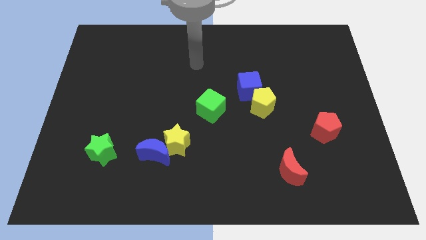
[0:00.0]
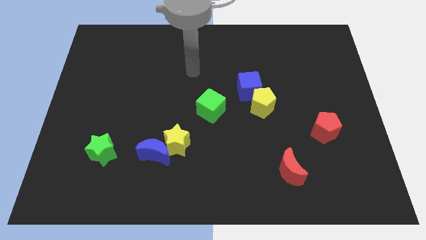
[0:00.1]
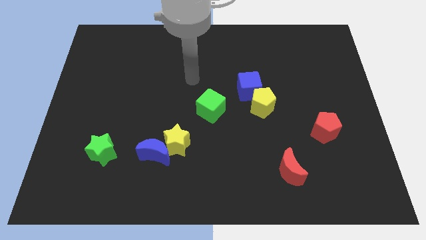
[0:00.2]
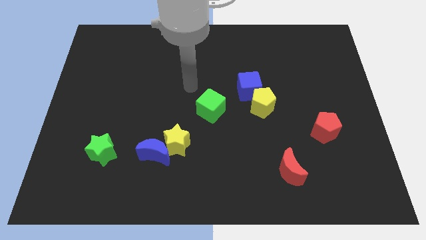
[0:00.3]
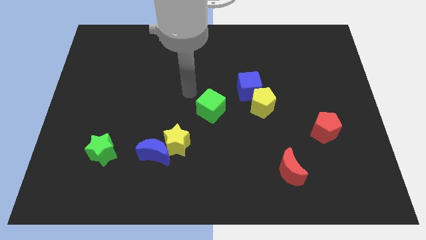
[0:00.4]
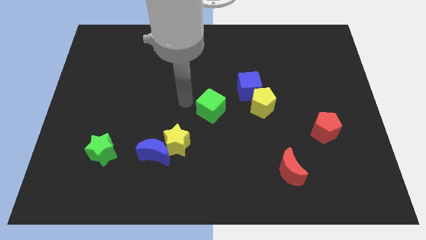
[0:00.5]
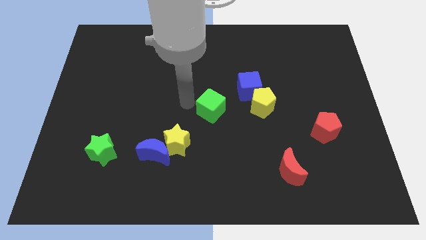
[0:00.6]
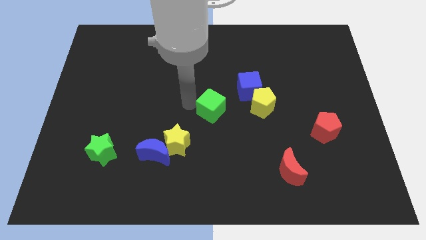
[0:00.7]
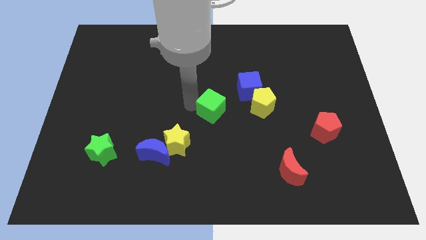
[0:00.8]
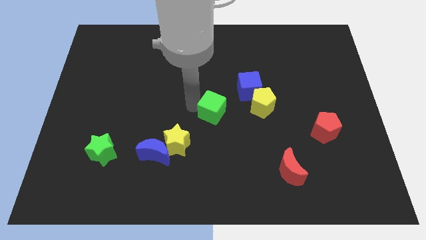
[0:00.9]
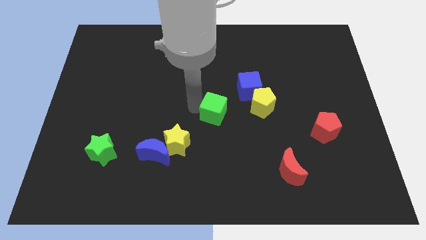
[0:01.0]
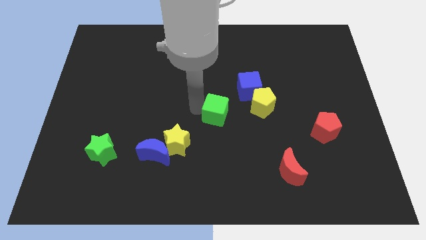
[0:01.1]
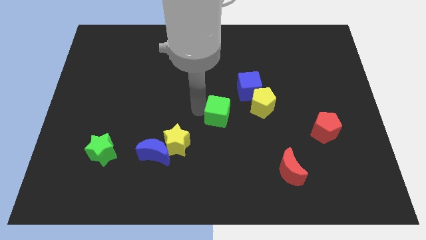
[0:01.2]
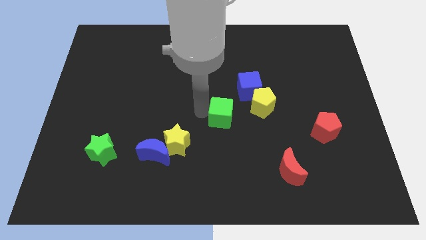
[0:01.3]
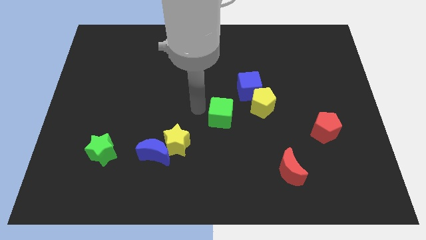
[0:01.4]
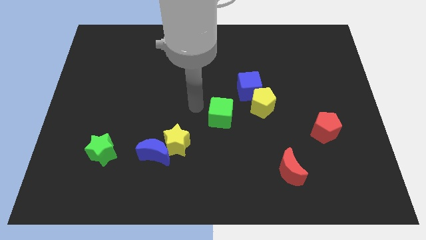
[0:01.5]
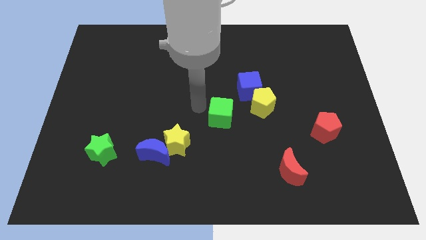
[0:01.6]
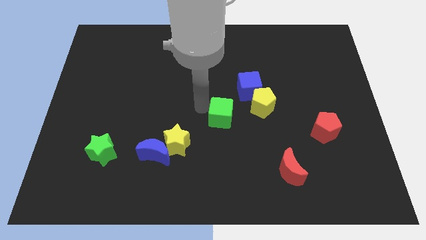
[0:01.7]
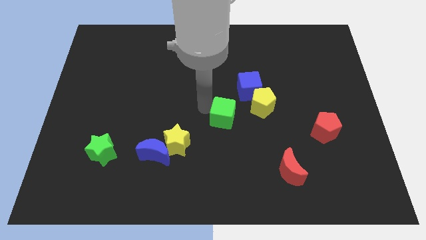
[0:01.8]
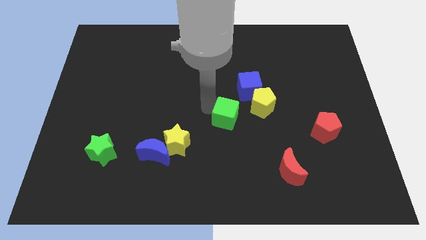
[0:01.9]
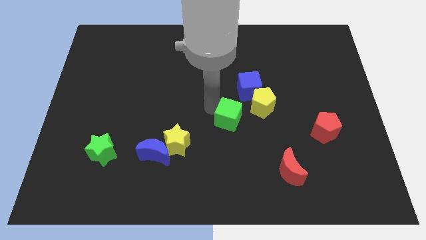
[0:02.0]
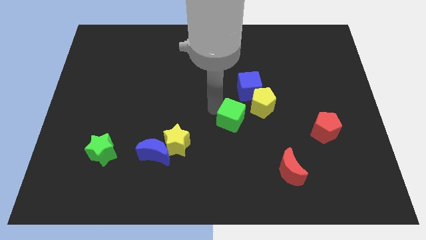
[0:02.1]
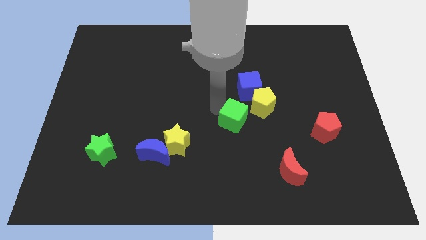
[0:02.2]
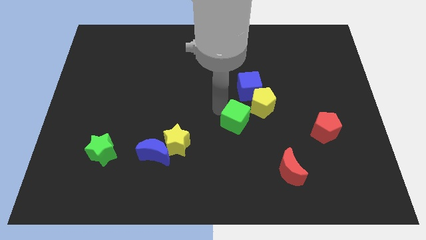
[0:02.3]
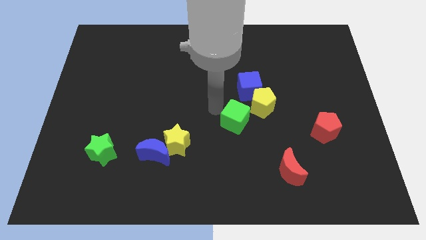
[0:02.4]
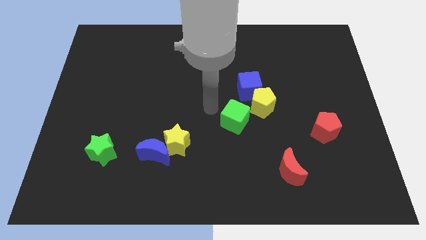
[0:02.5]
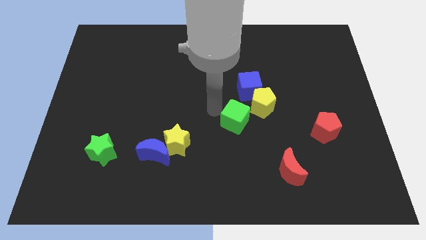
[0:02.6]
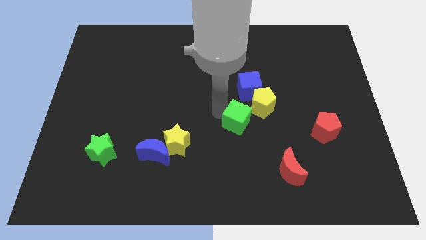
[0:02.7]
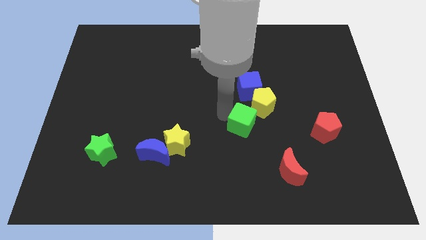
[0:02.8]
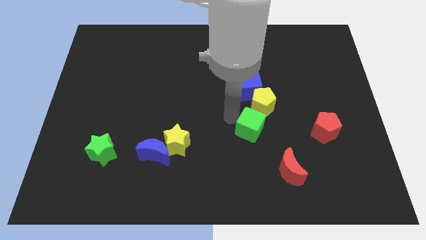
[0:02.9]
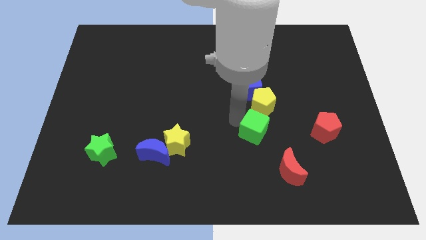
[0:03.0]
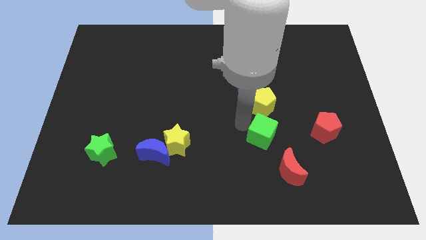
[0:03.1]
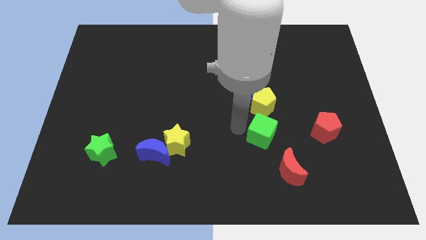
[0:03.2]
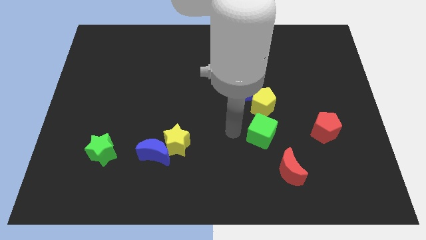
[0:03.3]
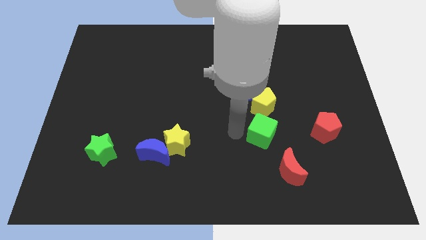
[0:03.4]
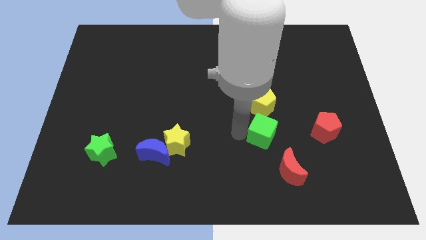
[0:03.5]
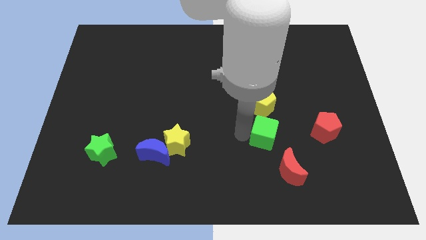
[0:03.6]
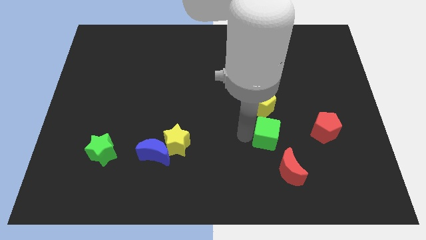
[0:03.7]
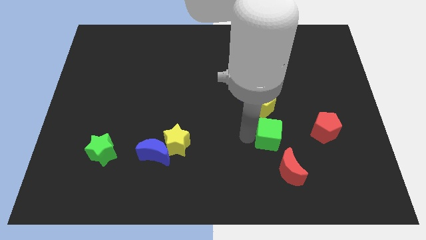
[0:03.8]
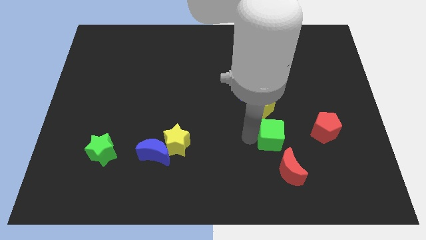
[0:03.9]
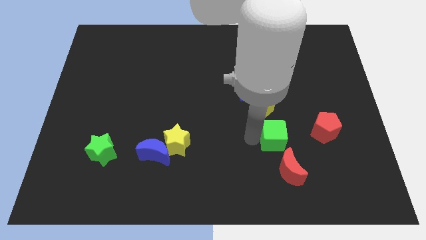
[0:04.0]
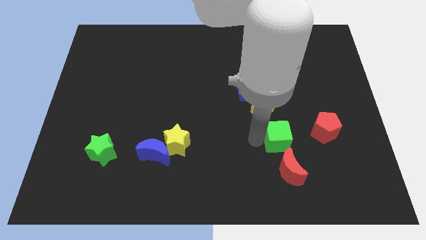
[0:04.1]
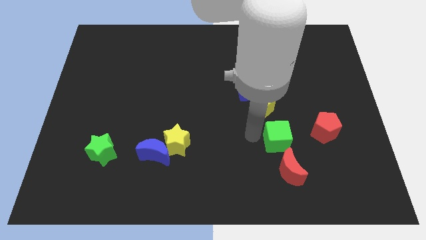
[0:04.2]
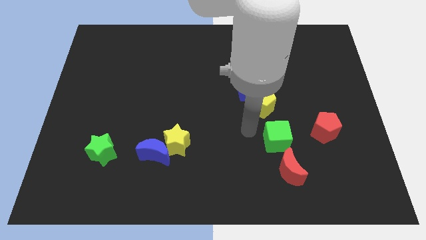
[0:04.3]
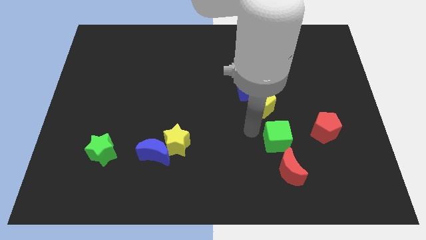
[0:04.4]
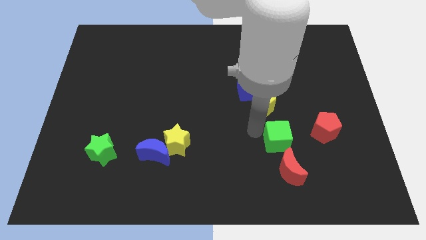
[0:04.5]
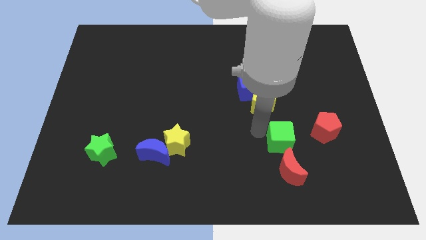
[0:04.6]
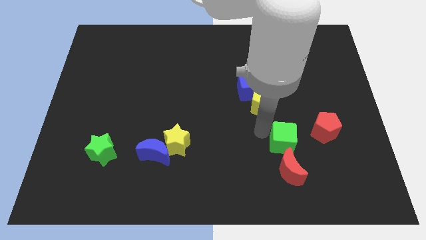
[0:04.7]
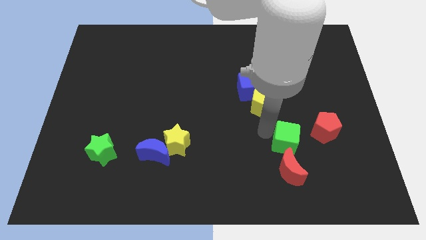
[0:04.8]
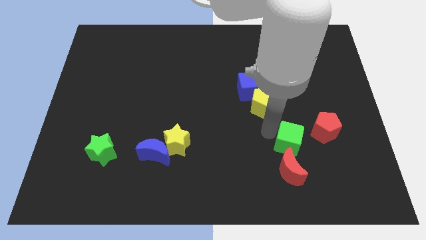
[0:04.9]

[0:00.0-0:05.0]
put the green cube to the top right of the red moon

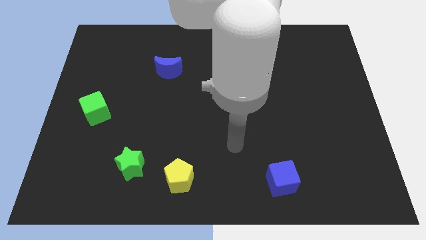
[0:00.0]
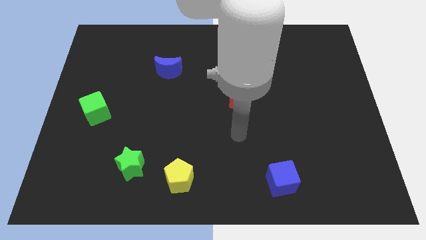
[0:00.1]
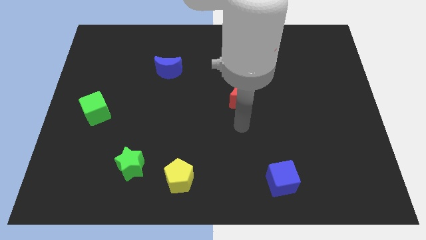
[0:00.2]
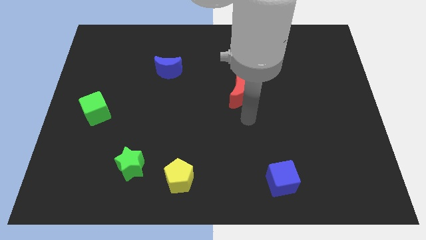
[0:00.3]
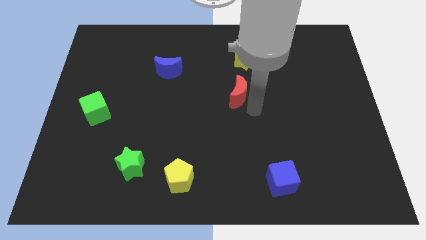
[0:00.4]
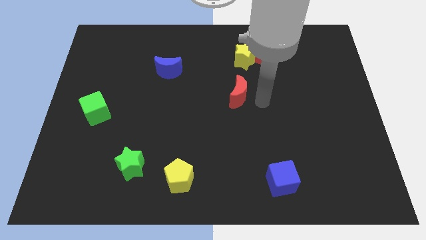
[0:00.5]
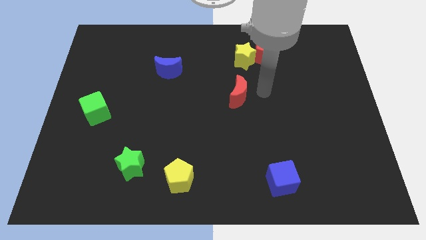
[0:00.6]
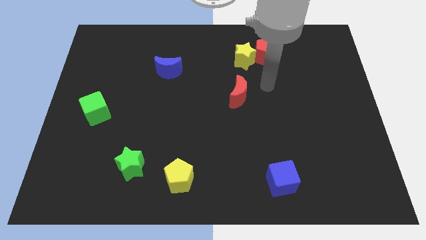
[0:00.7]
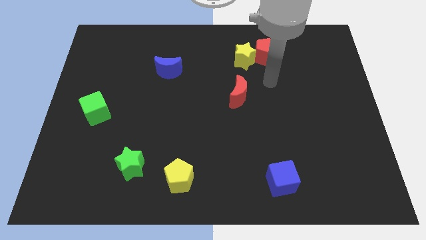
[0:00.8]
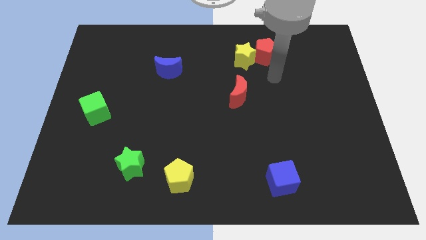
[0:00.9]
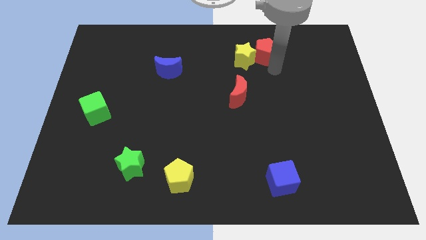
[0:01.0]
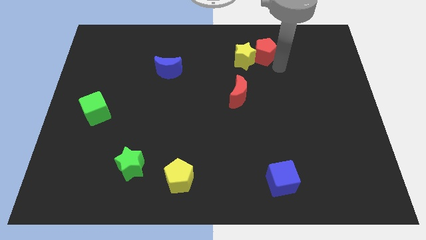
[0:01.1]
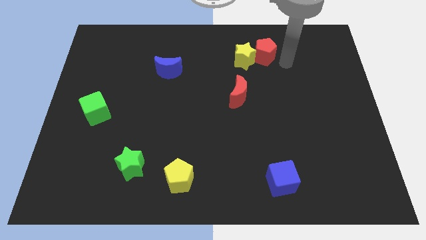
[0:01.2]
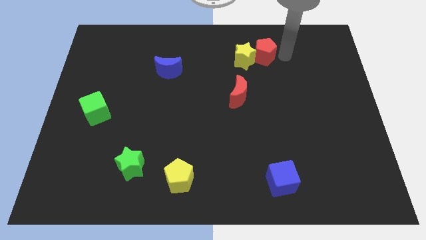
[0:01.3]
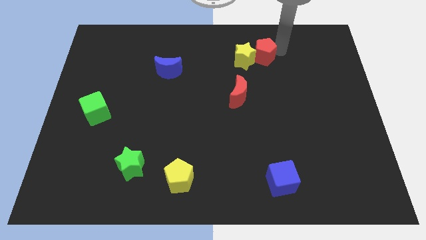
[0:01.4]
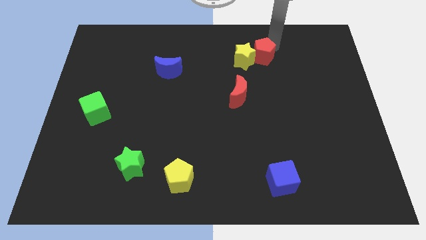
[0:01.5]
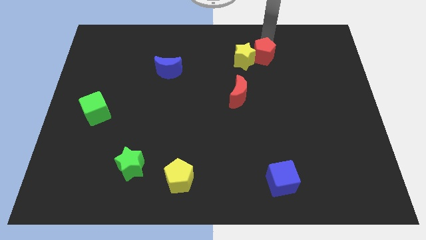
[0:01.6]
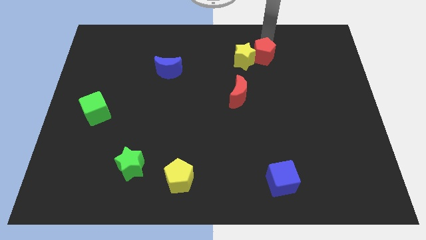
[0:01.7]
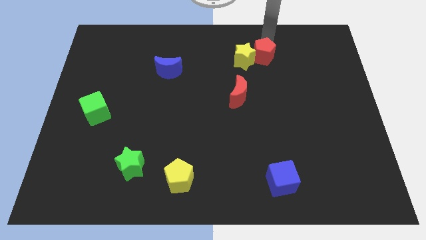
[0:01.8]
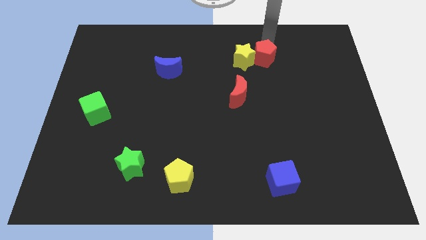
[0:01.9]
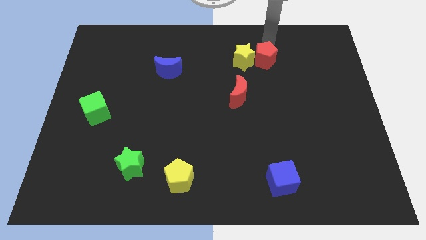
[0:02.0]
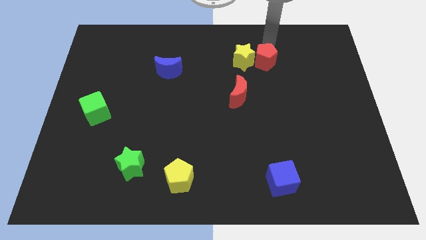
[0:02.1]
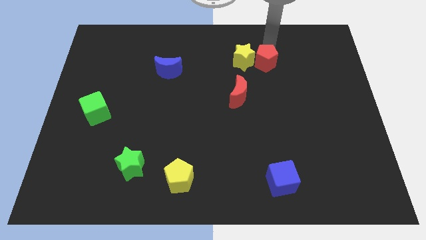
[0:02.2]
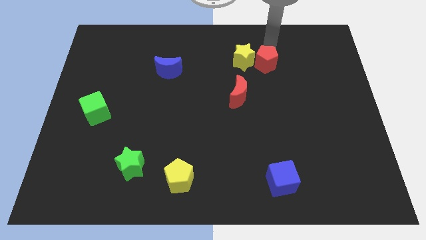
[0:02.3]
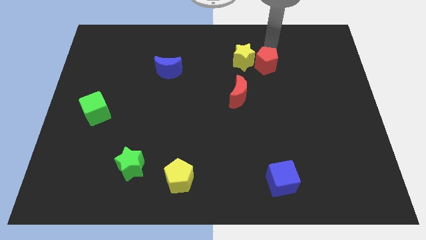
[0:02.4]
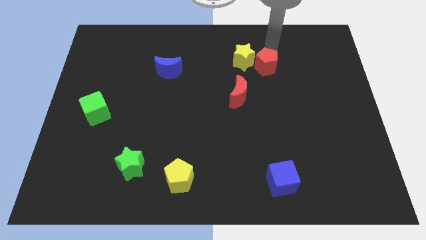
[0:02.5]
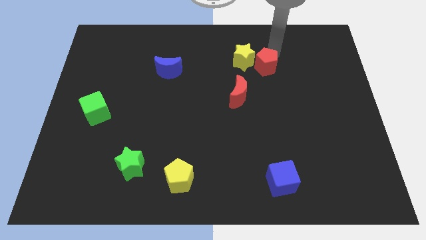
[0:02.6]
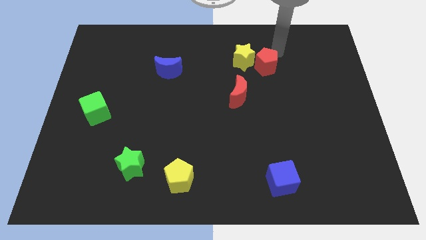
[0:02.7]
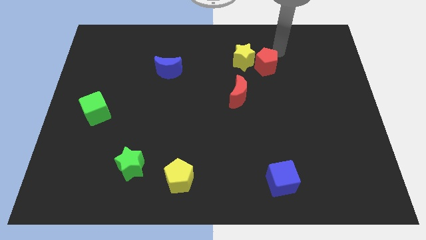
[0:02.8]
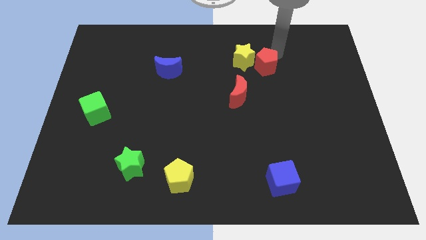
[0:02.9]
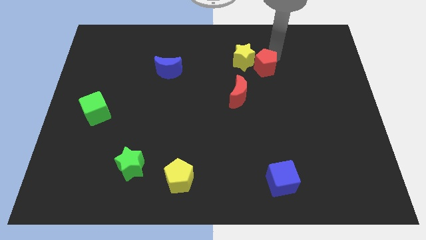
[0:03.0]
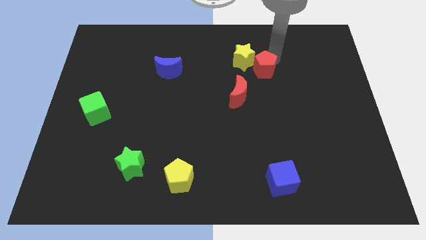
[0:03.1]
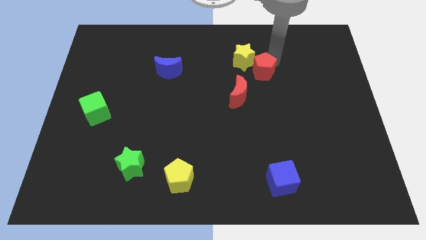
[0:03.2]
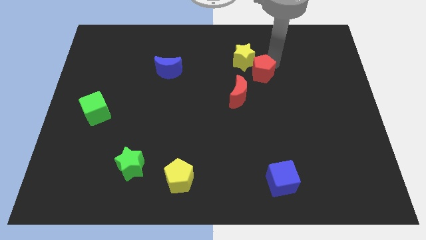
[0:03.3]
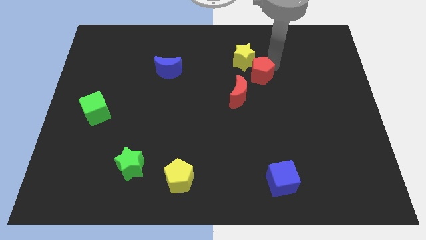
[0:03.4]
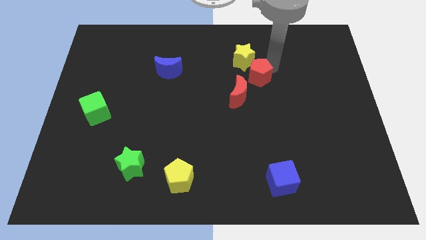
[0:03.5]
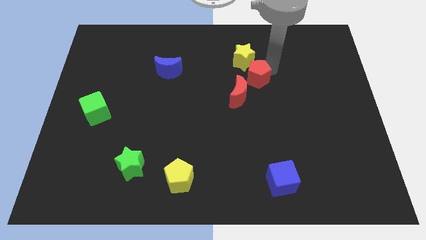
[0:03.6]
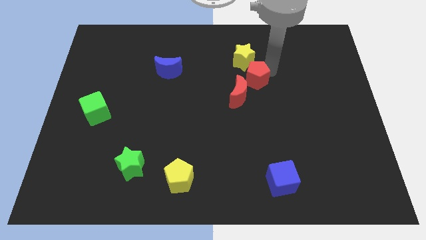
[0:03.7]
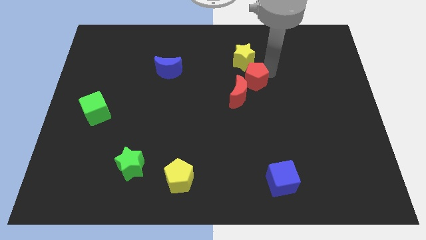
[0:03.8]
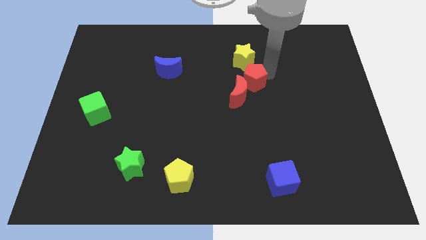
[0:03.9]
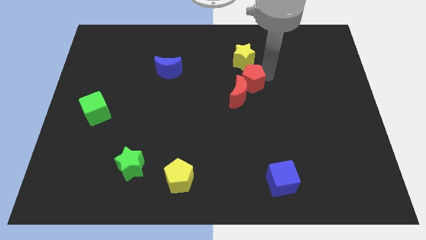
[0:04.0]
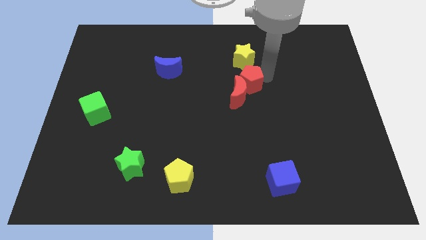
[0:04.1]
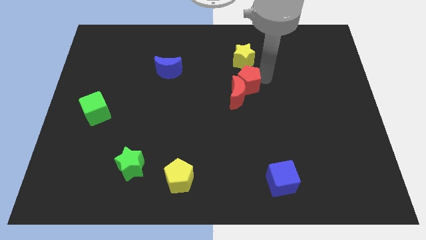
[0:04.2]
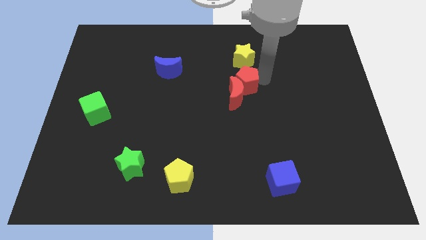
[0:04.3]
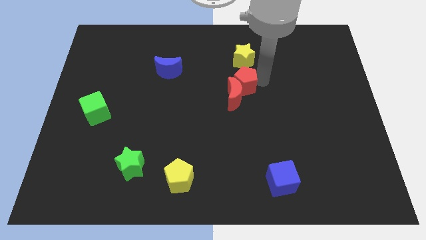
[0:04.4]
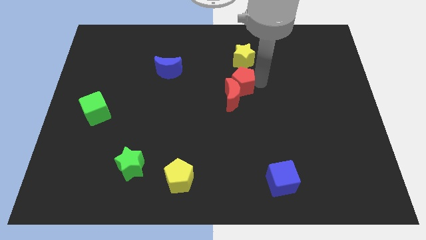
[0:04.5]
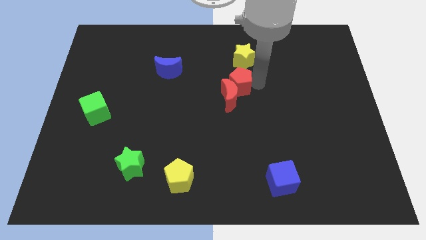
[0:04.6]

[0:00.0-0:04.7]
move the red pentagon to the bottom left of the yellow star
